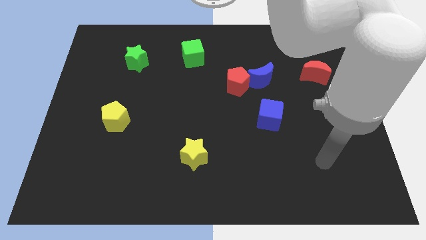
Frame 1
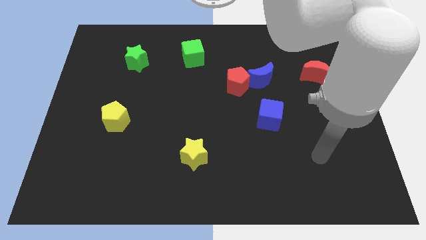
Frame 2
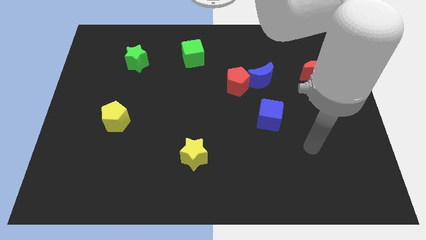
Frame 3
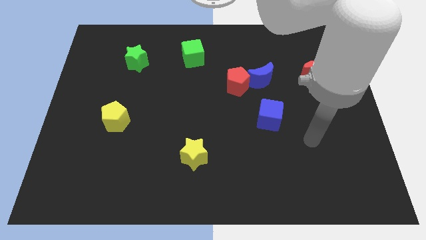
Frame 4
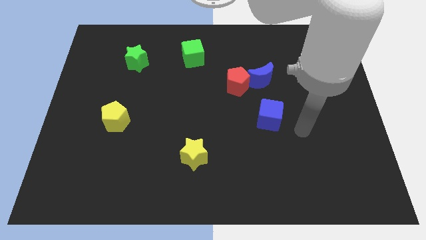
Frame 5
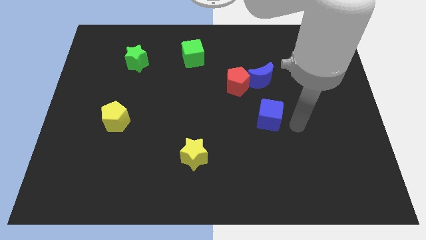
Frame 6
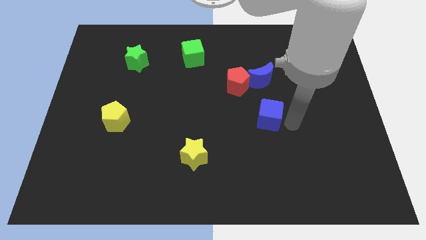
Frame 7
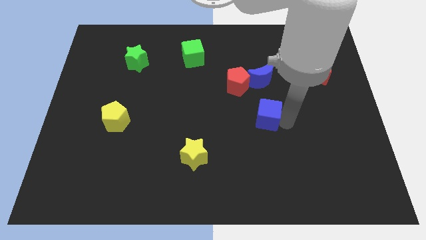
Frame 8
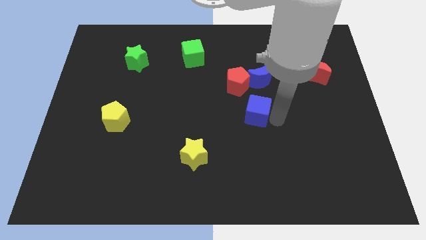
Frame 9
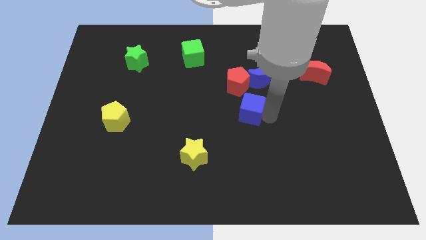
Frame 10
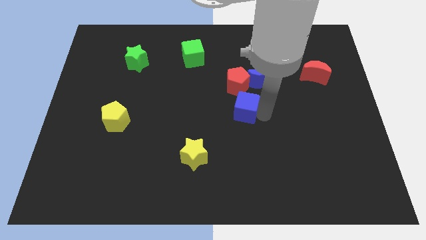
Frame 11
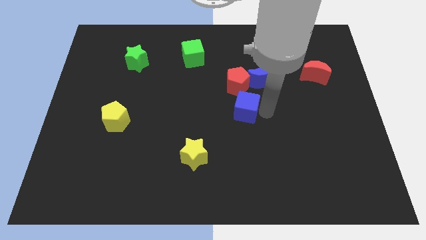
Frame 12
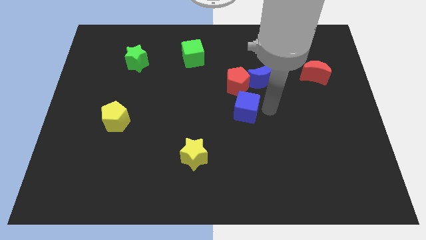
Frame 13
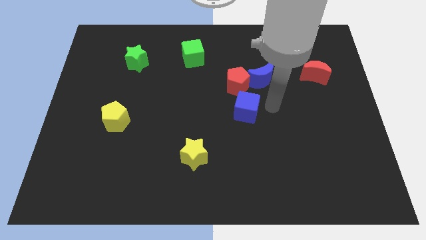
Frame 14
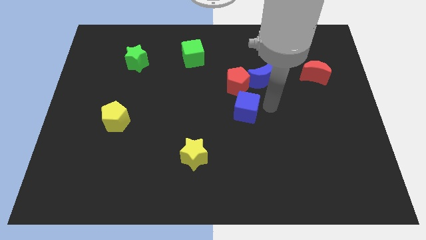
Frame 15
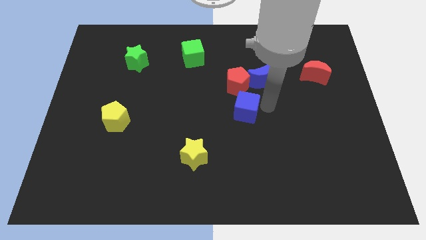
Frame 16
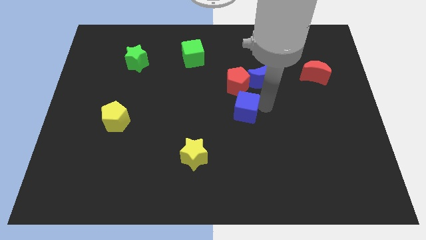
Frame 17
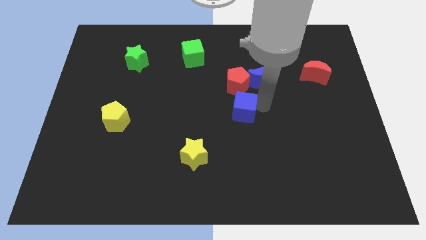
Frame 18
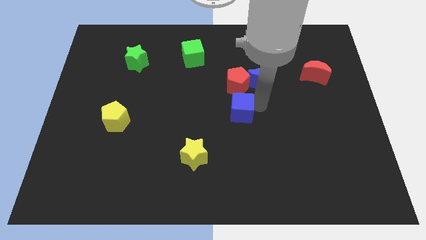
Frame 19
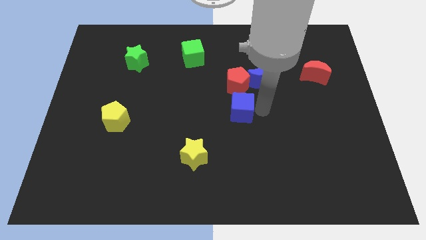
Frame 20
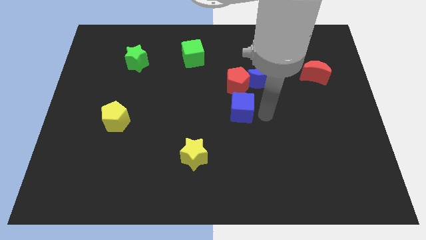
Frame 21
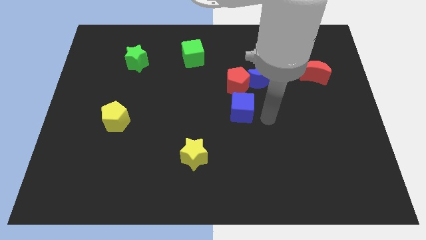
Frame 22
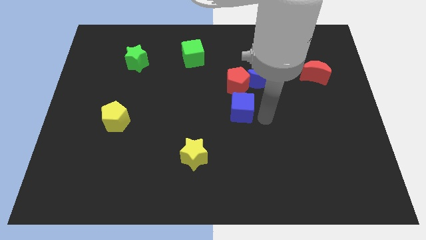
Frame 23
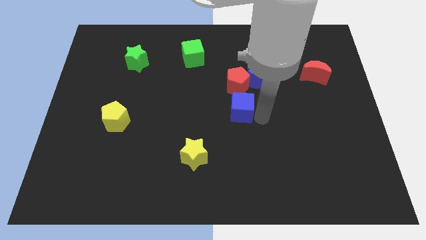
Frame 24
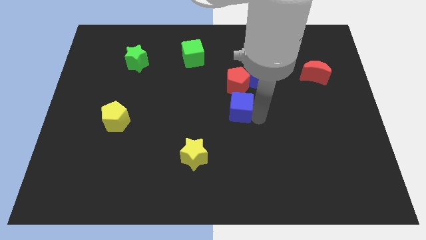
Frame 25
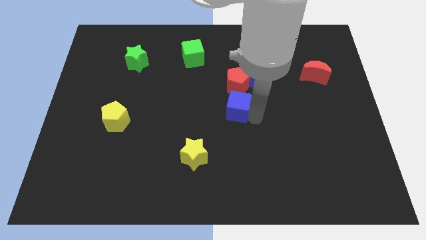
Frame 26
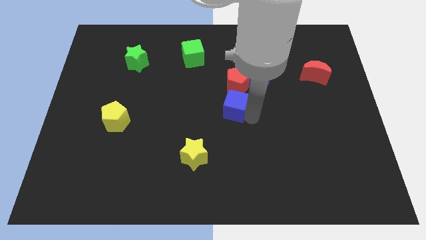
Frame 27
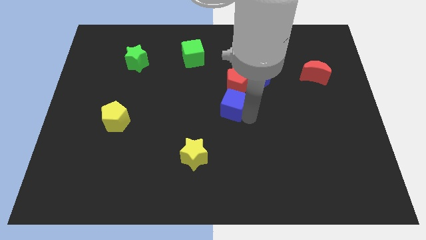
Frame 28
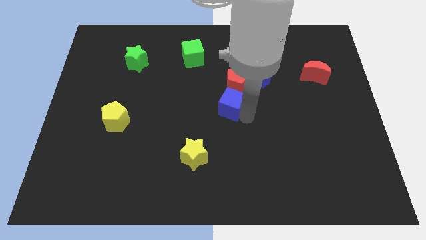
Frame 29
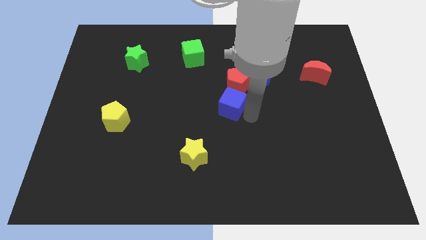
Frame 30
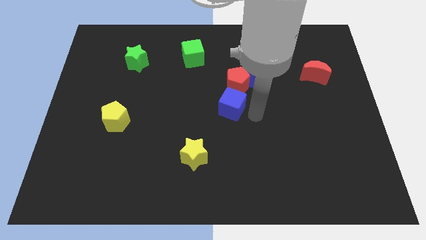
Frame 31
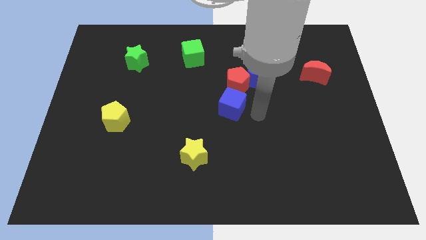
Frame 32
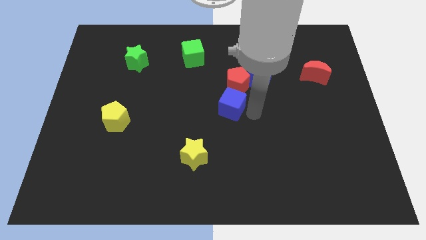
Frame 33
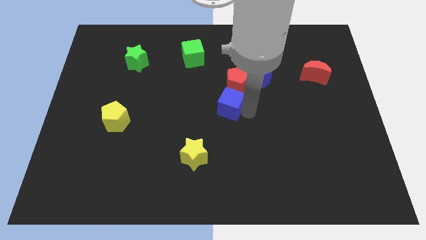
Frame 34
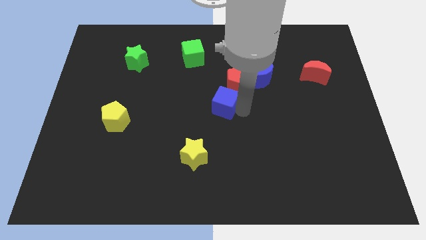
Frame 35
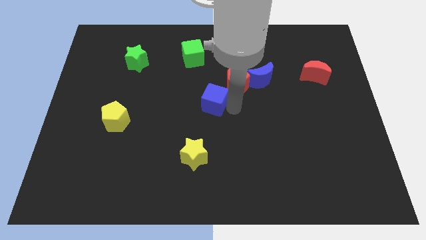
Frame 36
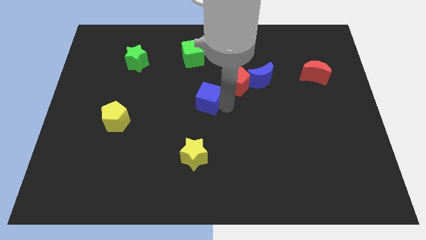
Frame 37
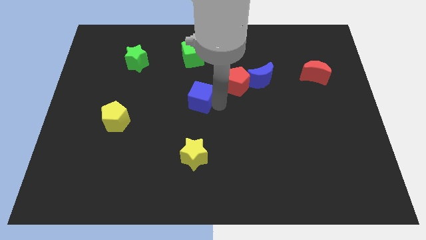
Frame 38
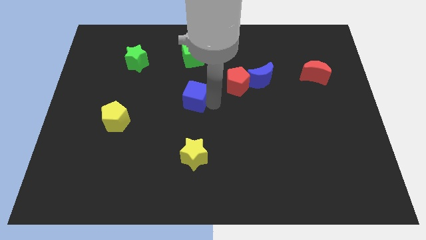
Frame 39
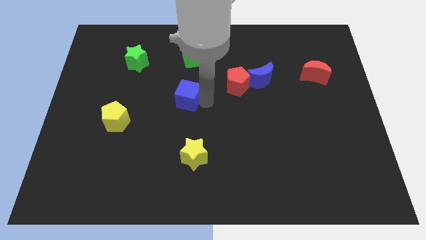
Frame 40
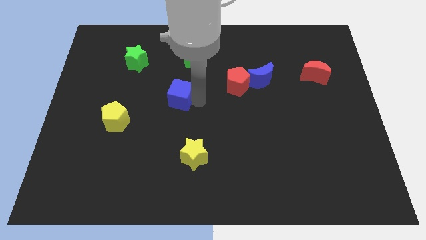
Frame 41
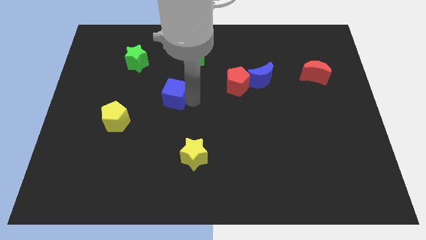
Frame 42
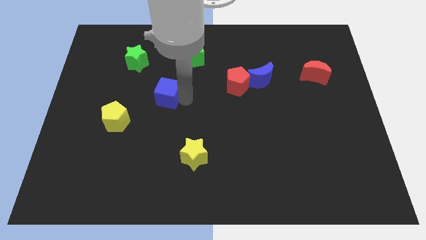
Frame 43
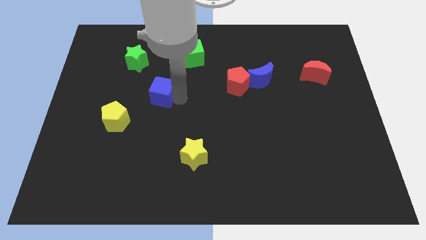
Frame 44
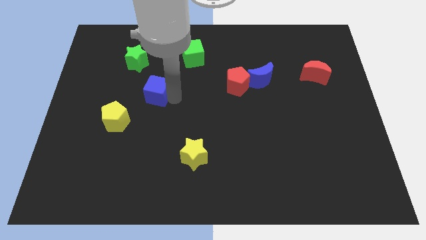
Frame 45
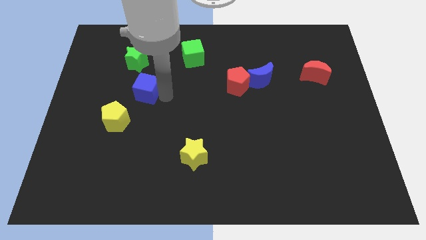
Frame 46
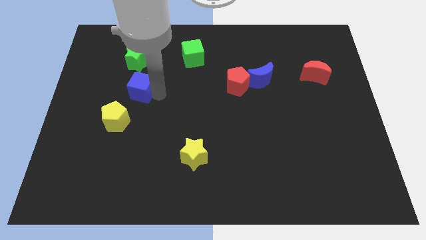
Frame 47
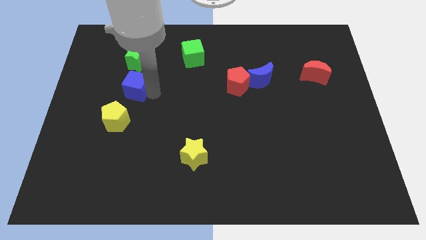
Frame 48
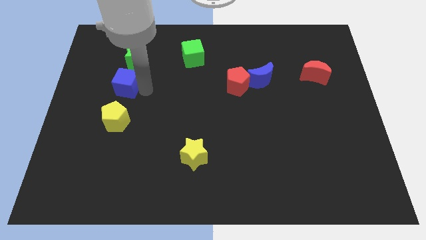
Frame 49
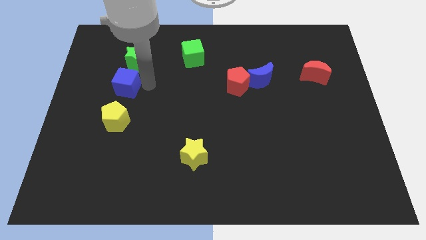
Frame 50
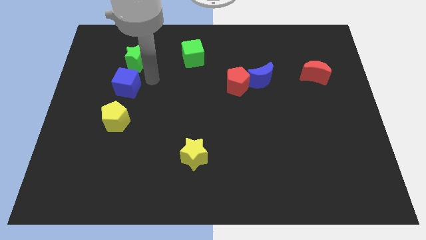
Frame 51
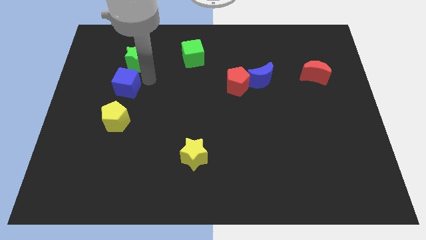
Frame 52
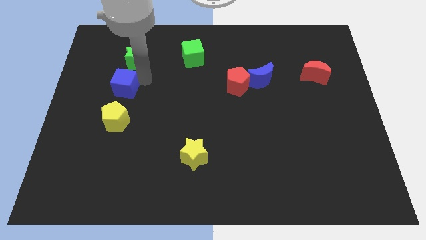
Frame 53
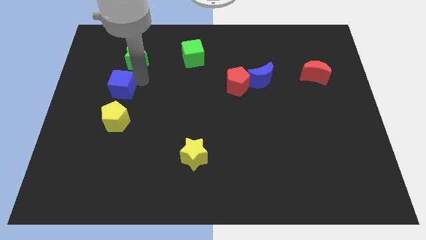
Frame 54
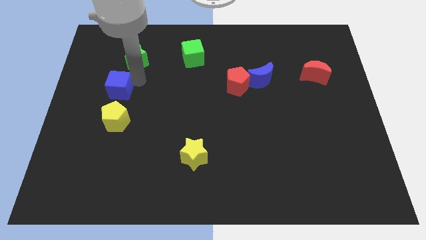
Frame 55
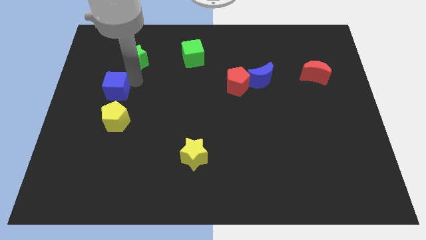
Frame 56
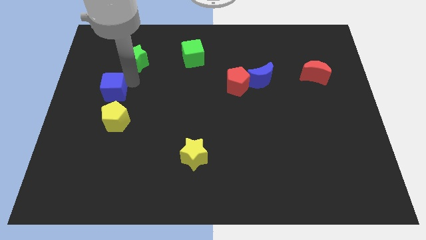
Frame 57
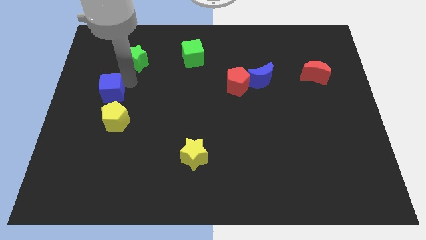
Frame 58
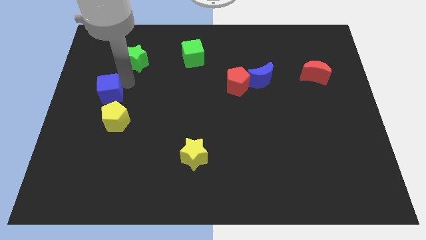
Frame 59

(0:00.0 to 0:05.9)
slide the blue cube to the left side of the board
